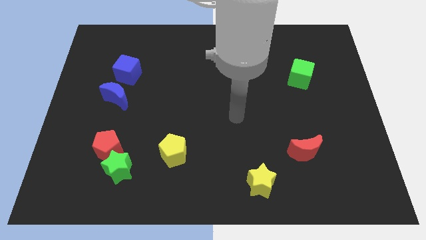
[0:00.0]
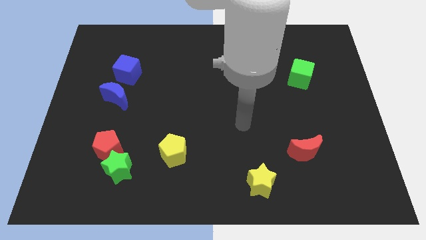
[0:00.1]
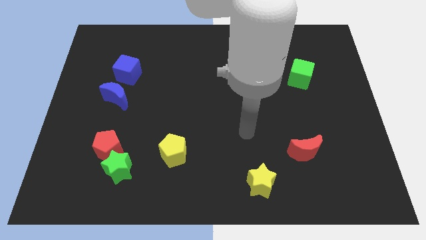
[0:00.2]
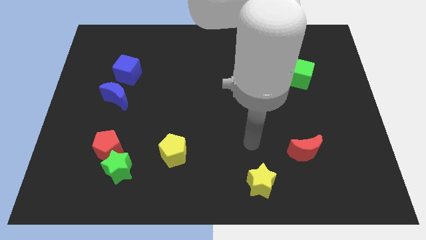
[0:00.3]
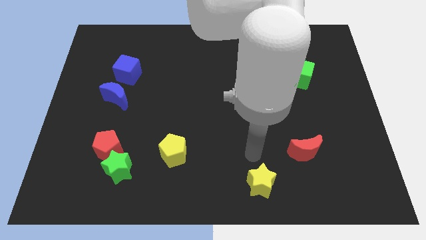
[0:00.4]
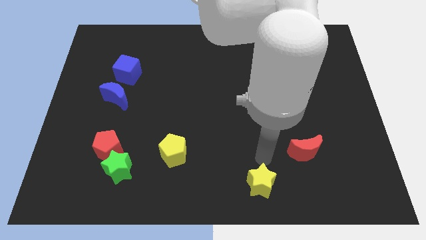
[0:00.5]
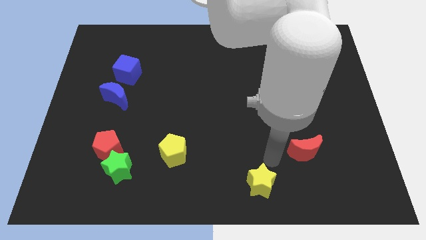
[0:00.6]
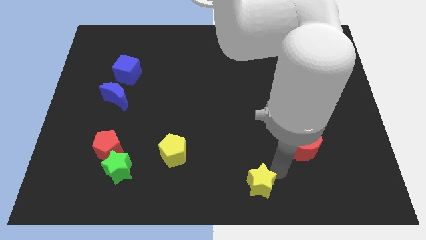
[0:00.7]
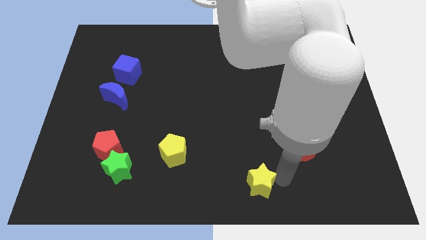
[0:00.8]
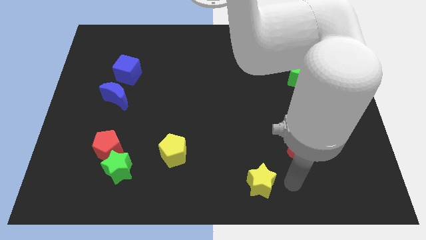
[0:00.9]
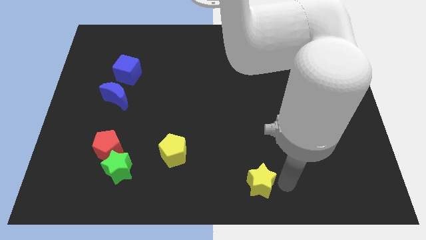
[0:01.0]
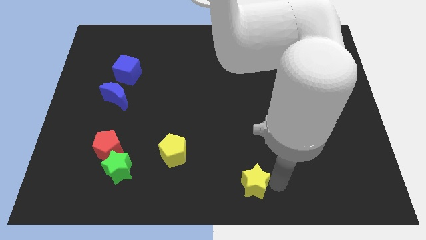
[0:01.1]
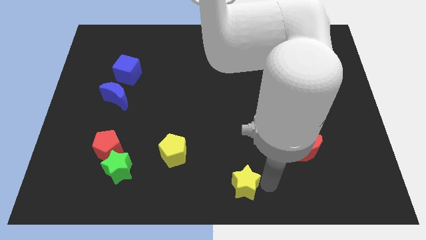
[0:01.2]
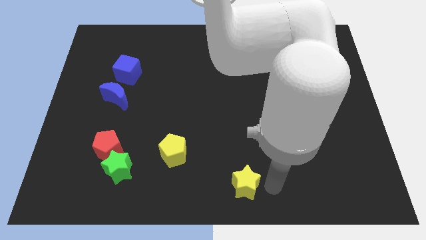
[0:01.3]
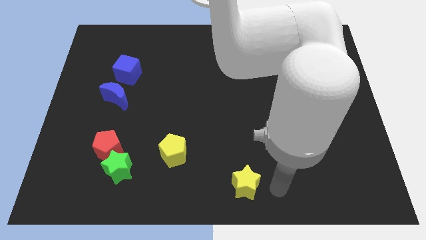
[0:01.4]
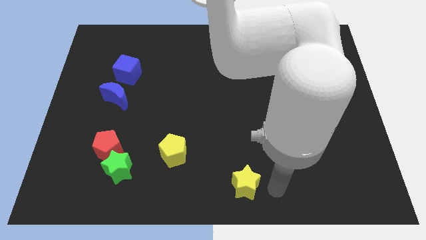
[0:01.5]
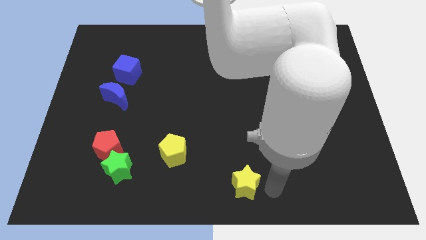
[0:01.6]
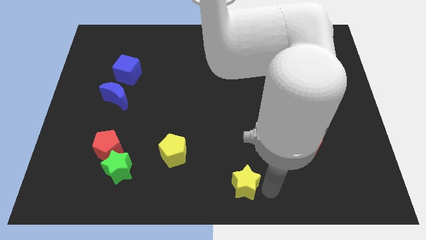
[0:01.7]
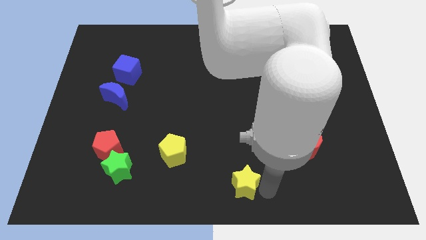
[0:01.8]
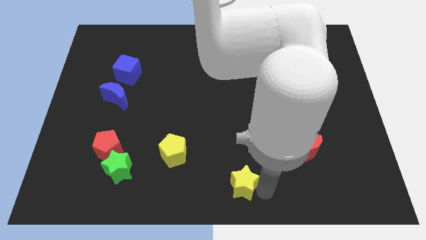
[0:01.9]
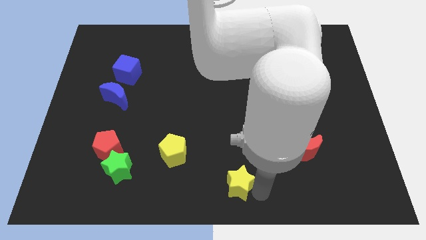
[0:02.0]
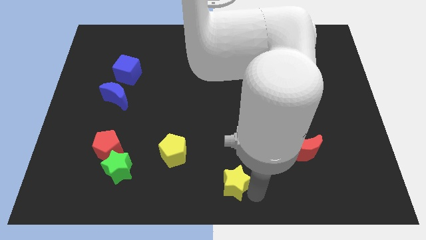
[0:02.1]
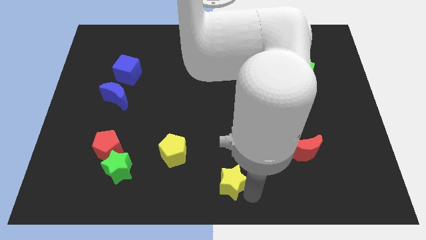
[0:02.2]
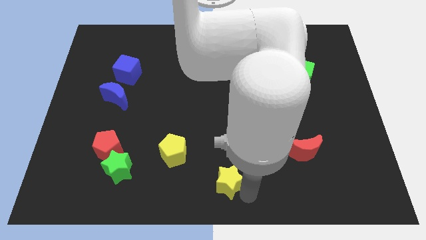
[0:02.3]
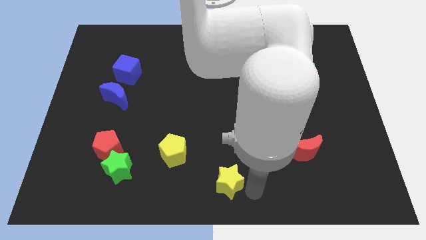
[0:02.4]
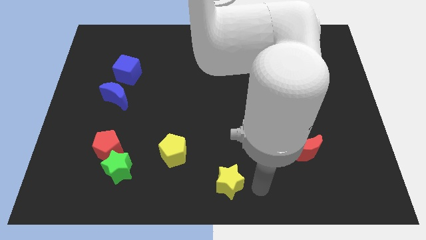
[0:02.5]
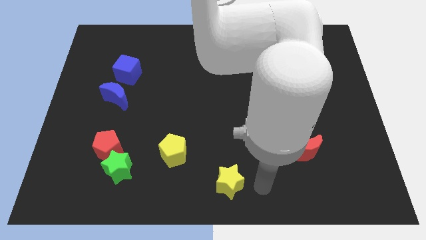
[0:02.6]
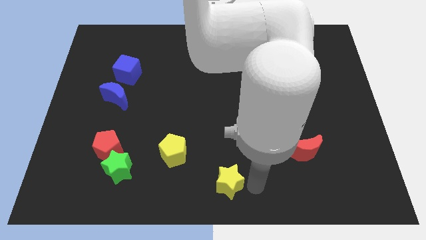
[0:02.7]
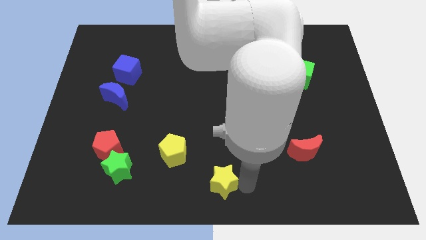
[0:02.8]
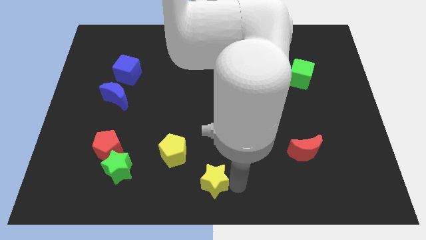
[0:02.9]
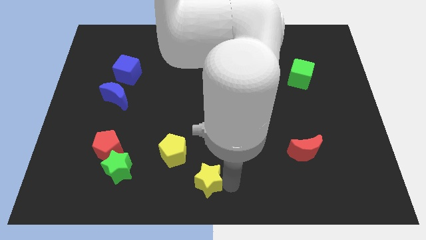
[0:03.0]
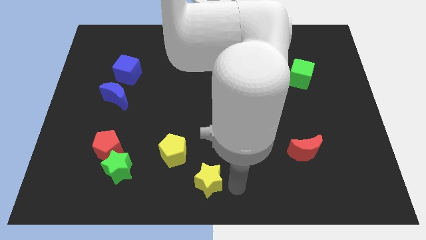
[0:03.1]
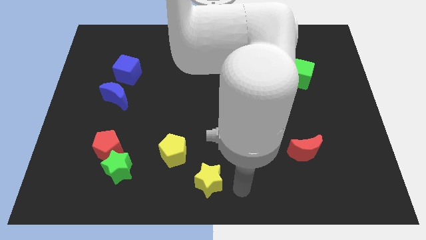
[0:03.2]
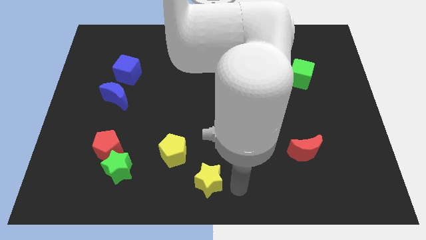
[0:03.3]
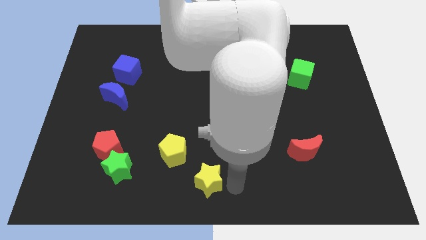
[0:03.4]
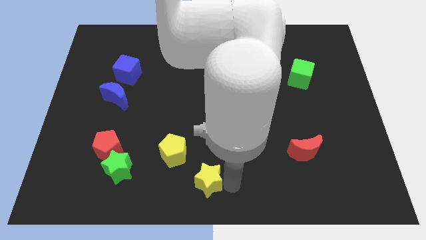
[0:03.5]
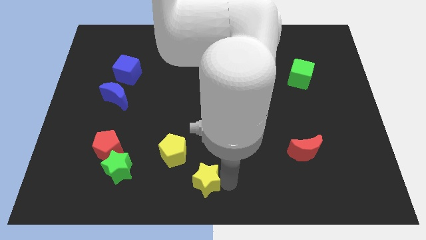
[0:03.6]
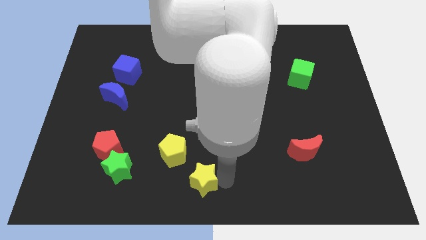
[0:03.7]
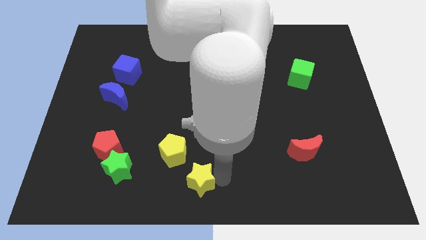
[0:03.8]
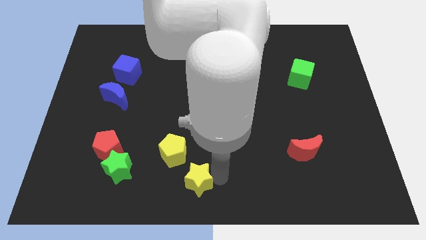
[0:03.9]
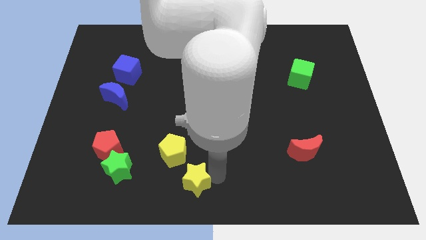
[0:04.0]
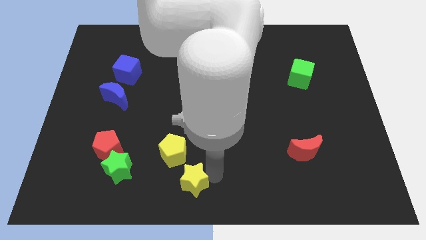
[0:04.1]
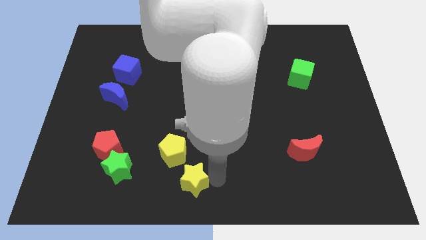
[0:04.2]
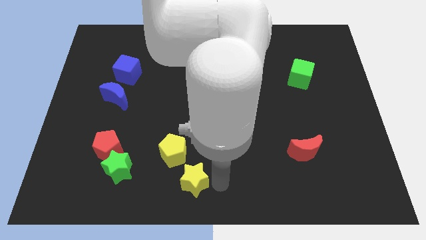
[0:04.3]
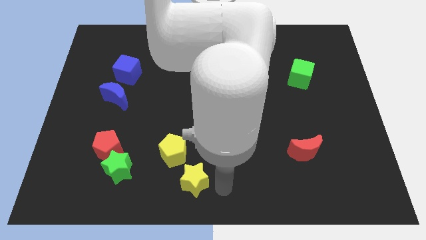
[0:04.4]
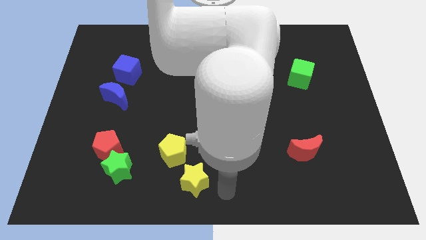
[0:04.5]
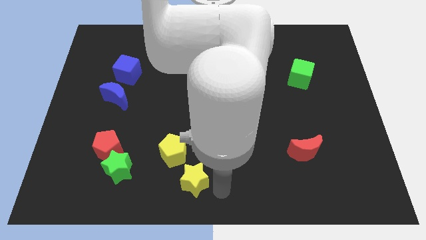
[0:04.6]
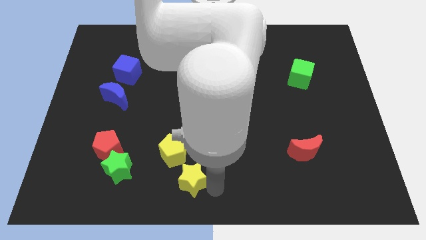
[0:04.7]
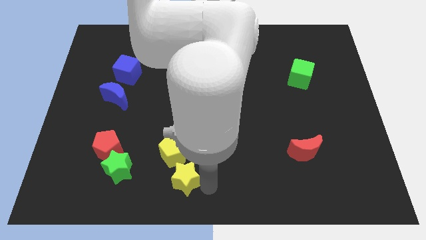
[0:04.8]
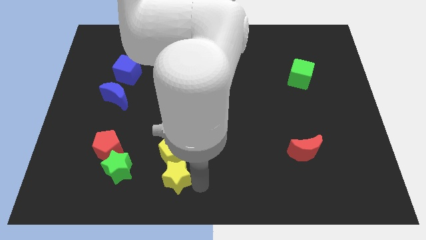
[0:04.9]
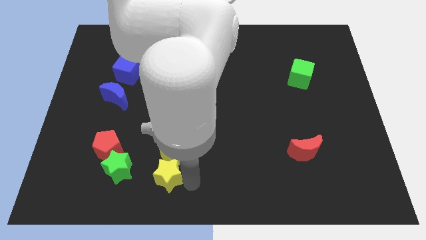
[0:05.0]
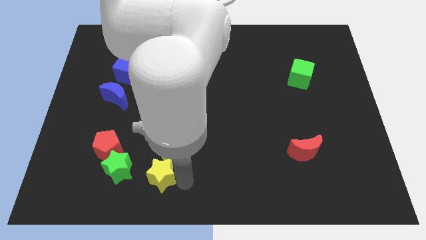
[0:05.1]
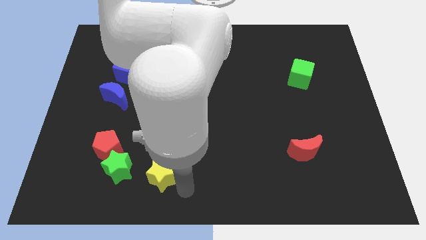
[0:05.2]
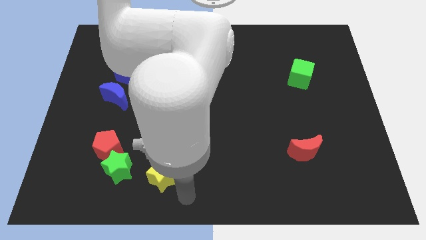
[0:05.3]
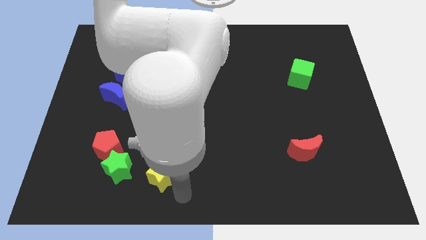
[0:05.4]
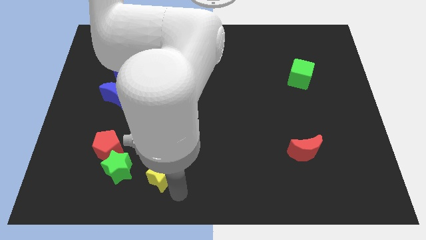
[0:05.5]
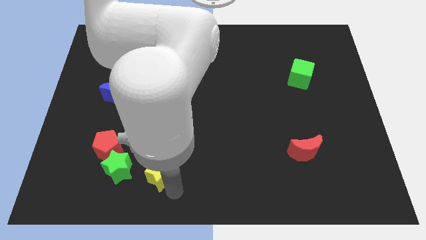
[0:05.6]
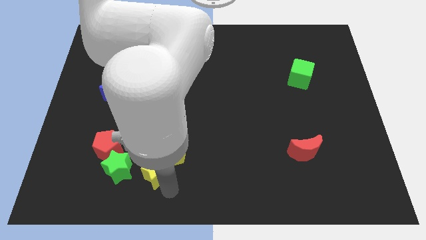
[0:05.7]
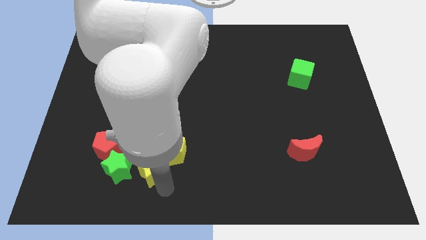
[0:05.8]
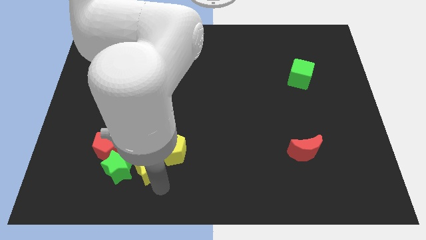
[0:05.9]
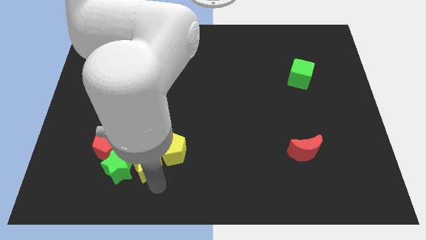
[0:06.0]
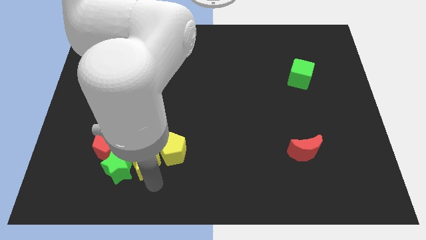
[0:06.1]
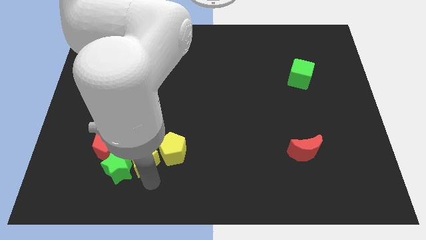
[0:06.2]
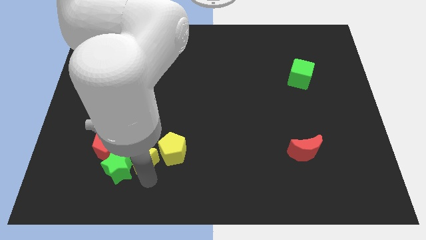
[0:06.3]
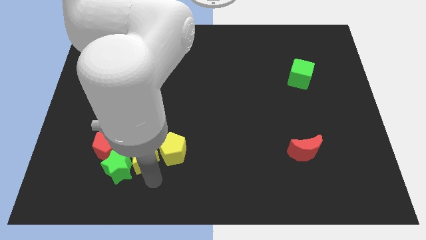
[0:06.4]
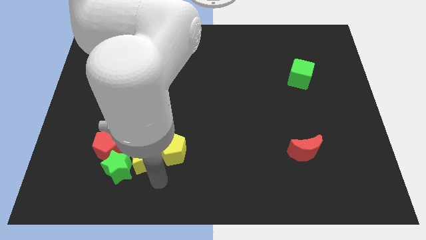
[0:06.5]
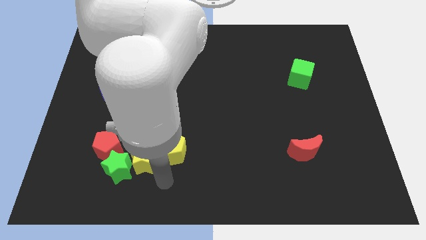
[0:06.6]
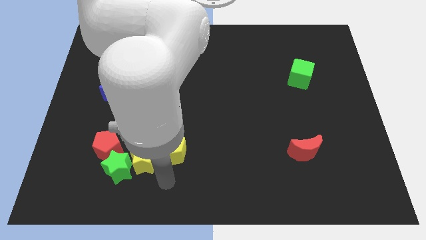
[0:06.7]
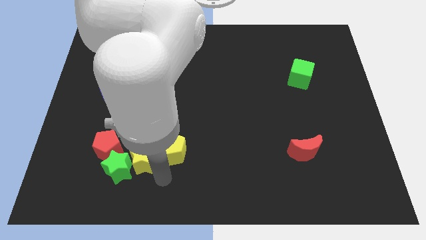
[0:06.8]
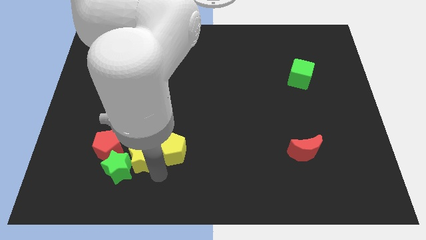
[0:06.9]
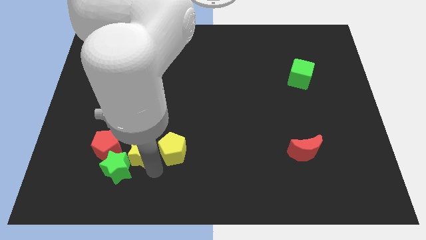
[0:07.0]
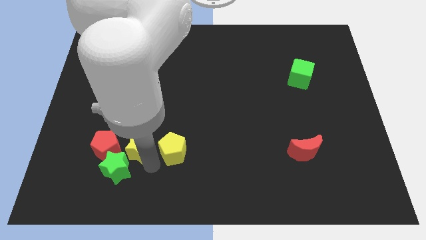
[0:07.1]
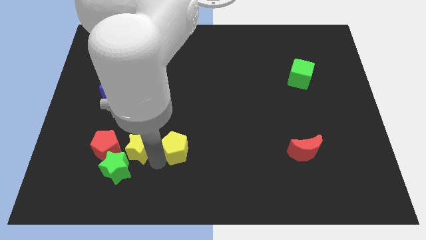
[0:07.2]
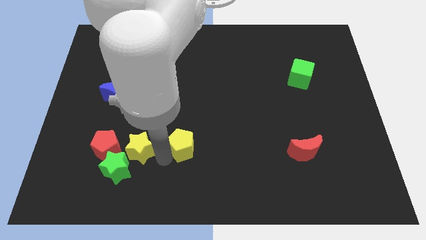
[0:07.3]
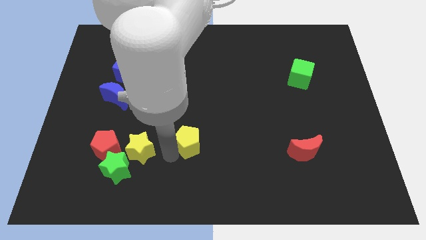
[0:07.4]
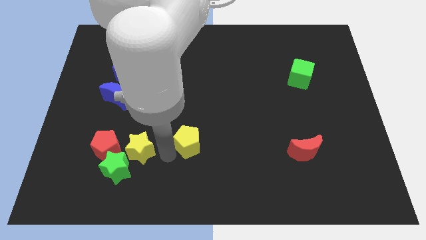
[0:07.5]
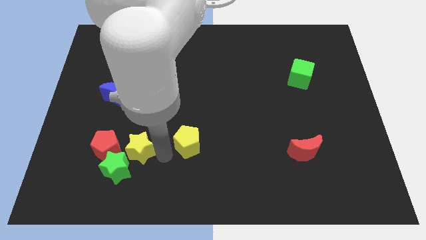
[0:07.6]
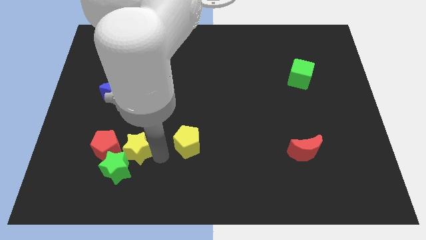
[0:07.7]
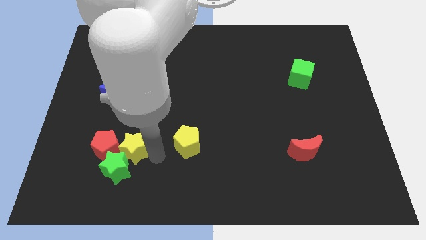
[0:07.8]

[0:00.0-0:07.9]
slide the yellow star towards the red pentagon

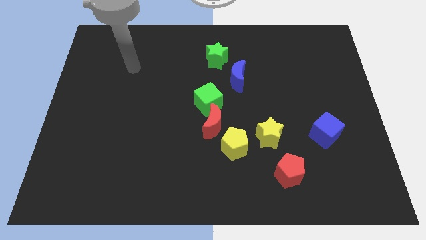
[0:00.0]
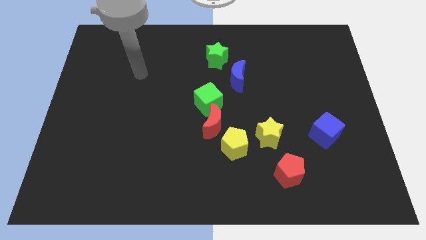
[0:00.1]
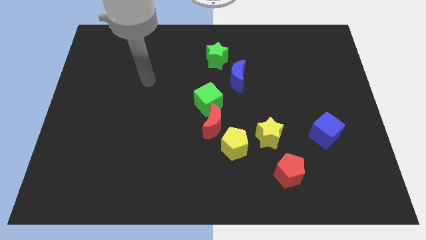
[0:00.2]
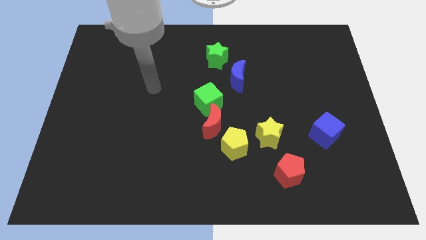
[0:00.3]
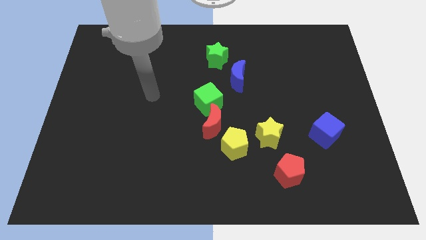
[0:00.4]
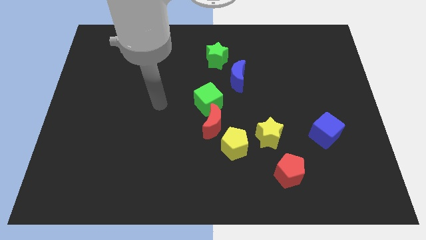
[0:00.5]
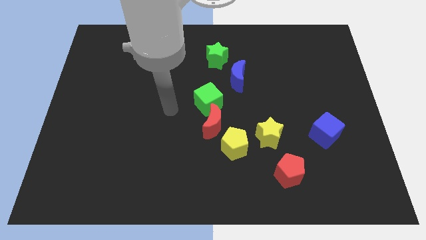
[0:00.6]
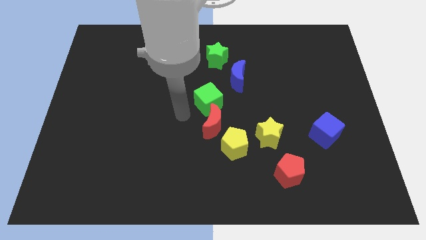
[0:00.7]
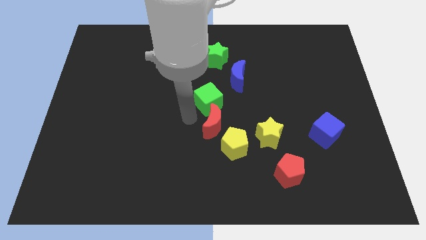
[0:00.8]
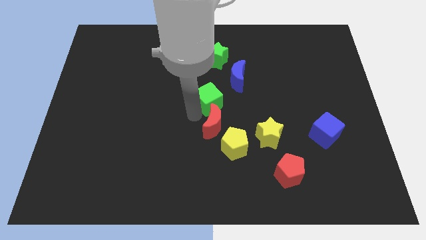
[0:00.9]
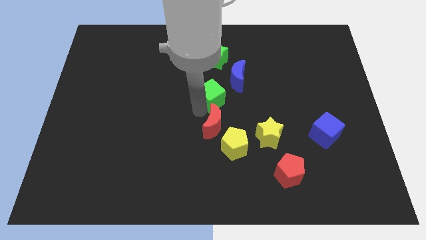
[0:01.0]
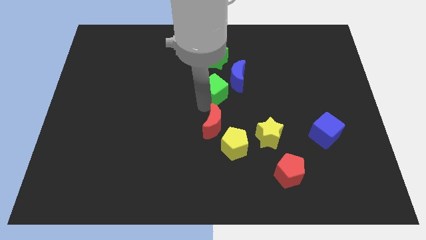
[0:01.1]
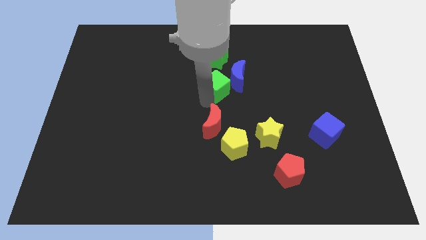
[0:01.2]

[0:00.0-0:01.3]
push the green cube to the blue moon
